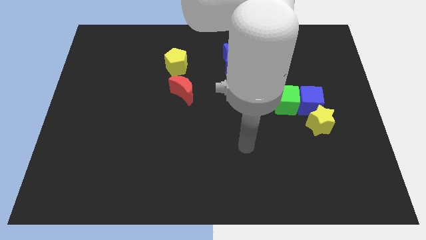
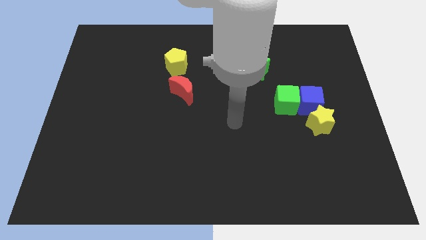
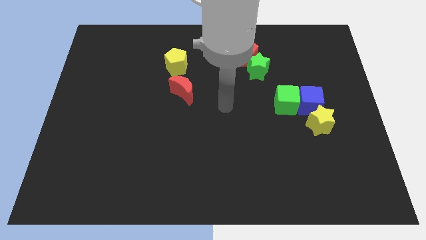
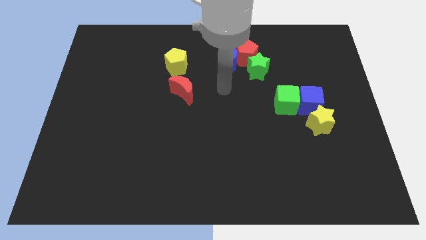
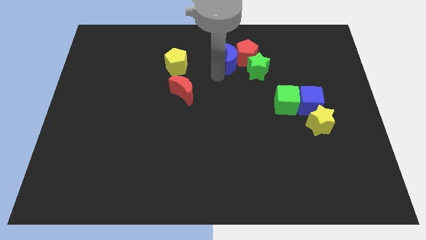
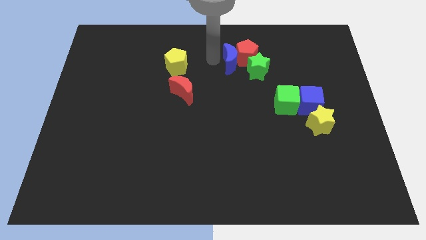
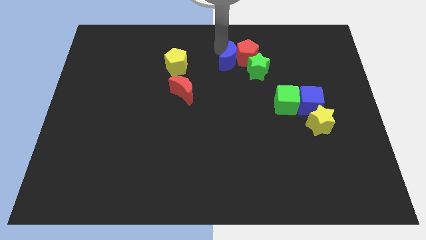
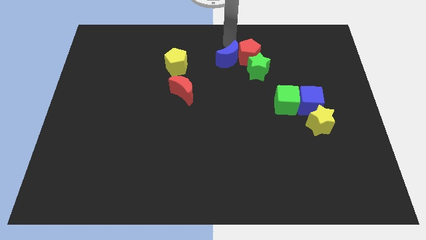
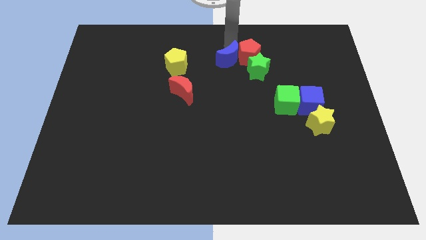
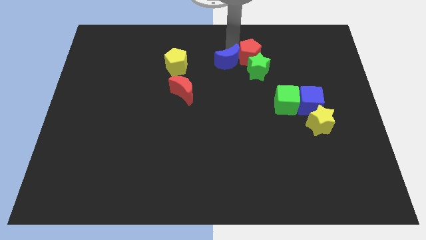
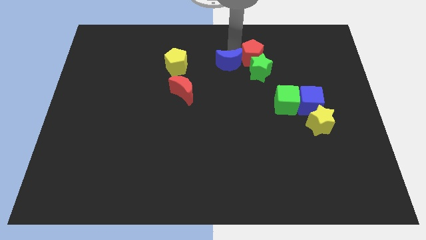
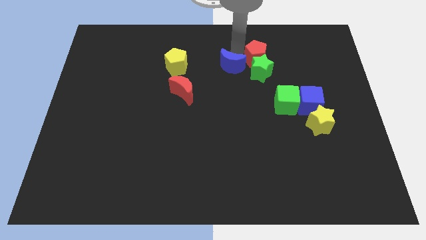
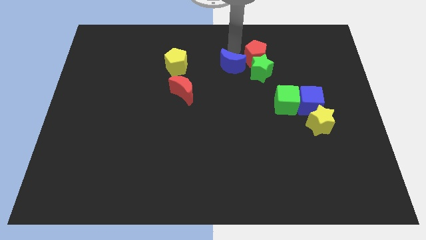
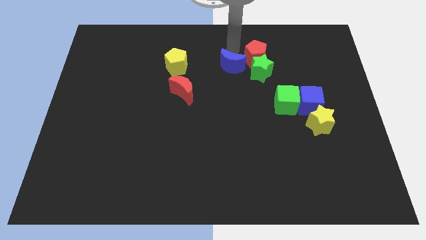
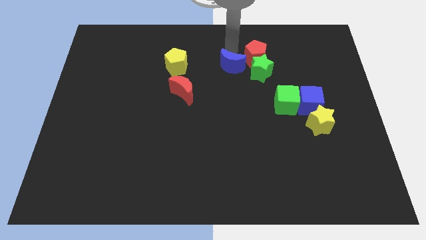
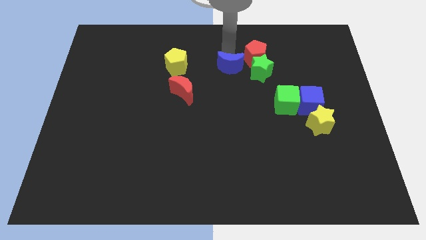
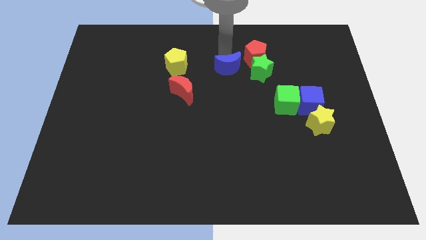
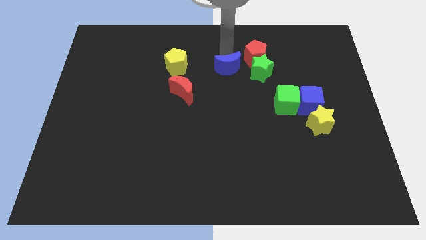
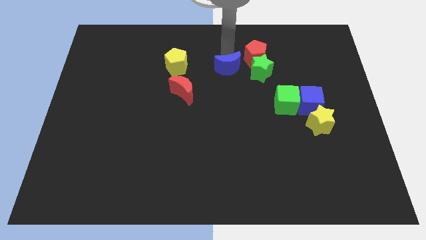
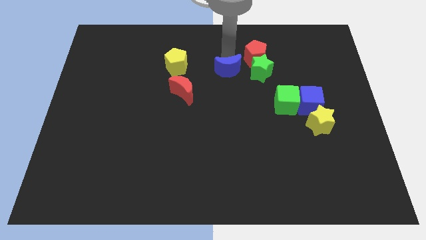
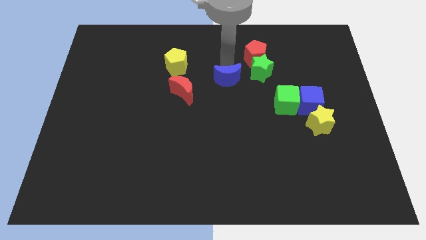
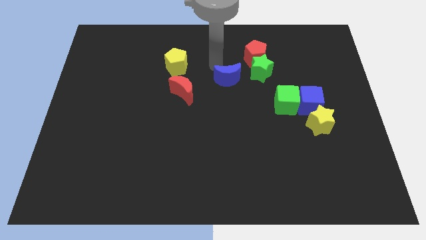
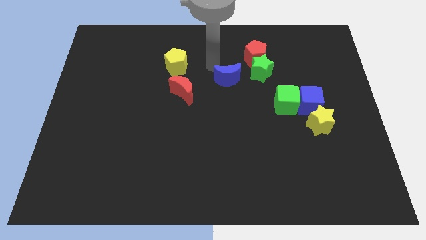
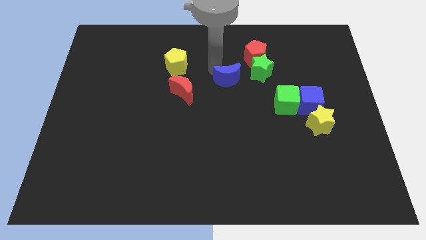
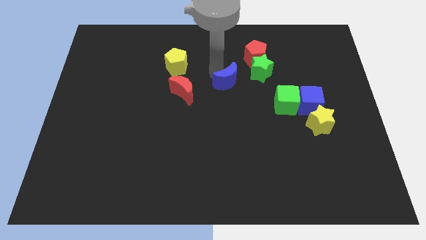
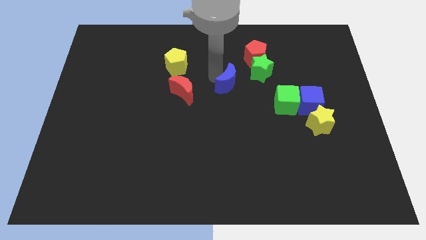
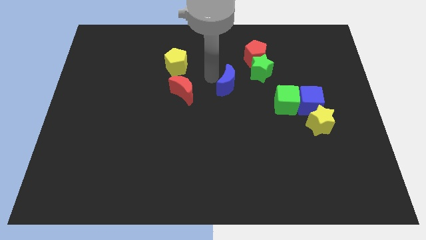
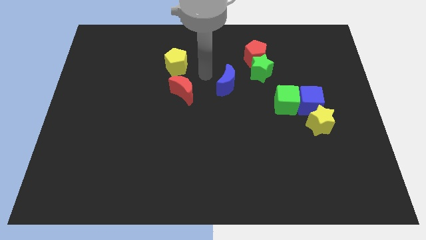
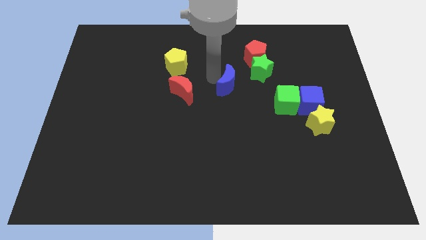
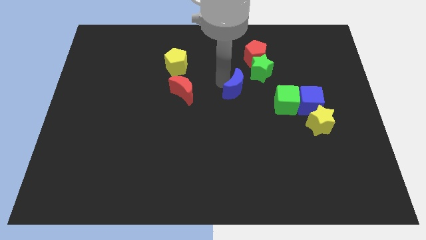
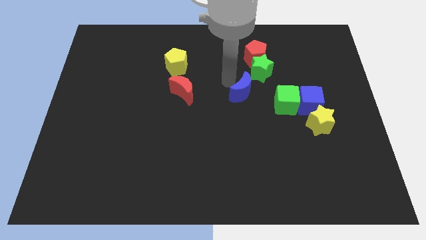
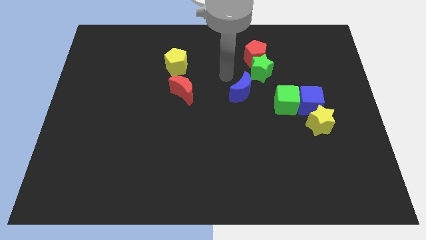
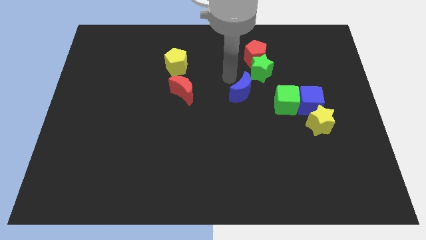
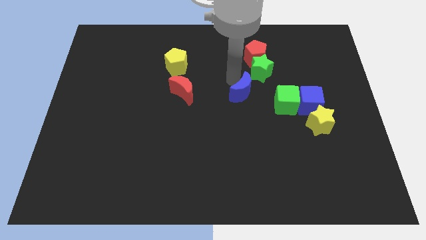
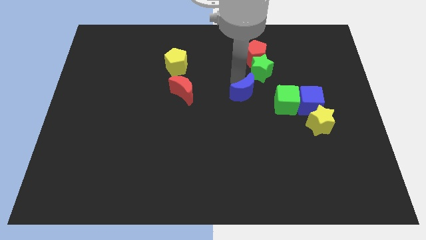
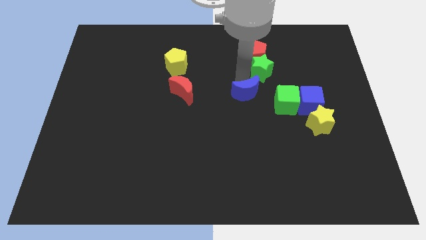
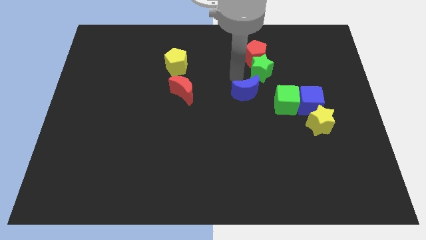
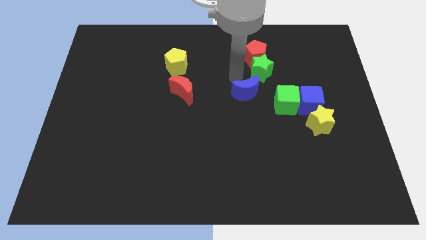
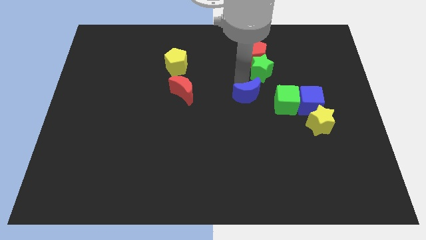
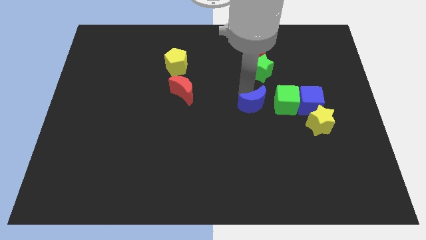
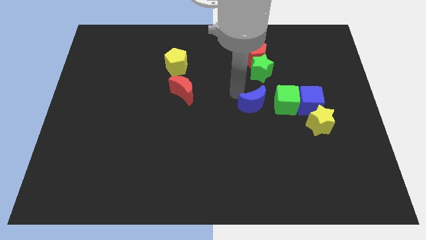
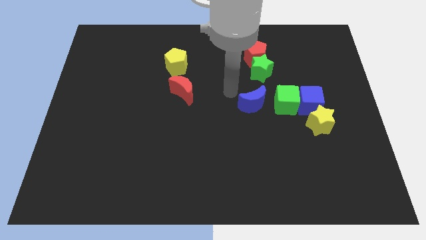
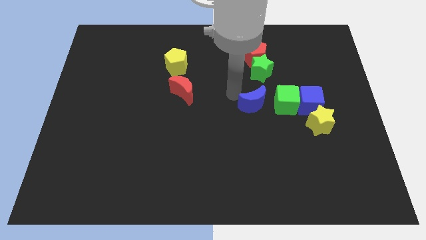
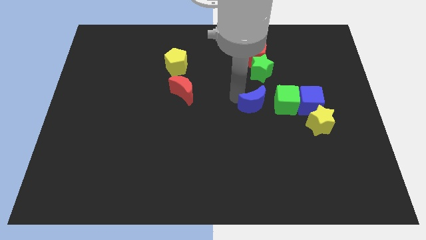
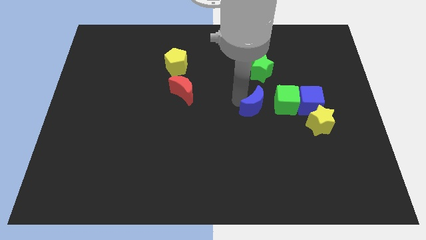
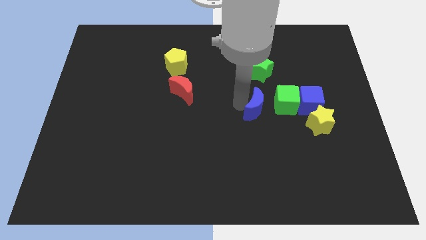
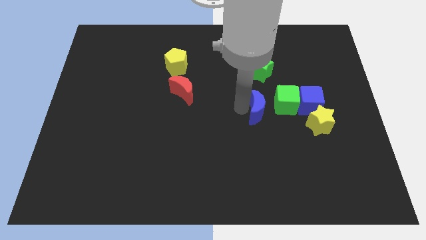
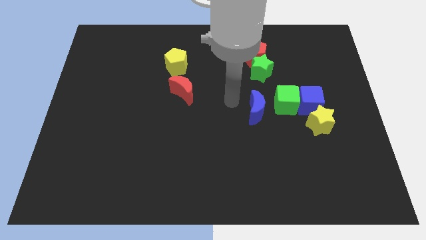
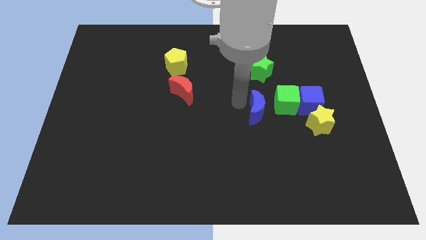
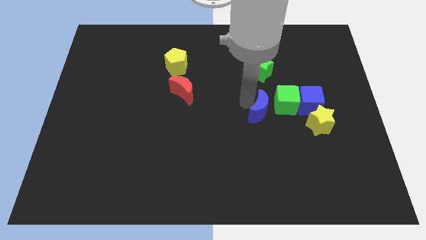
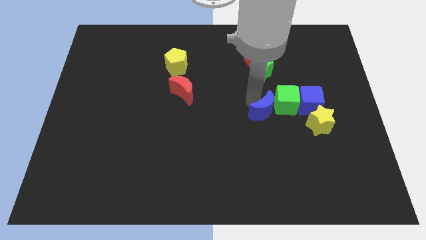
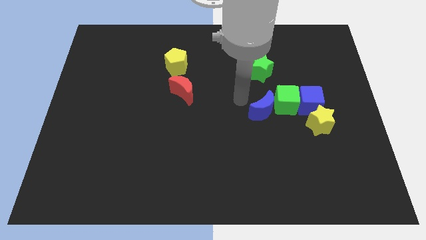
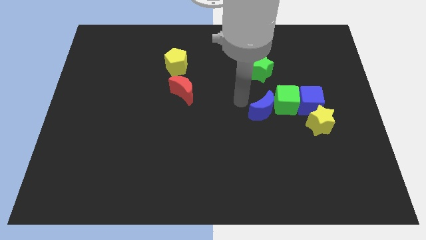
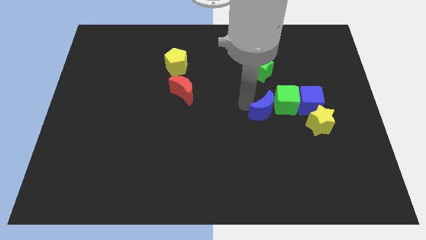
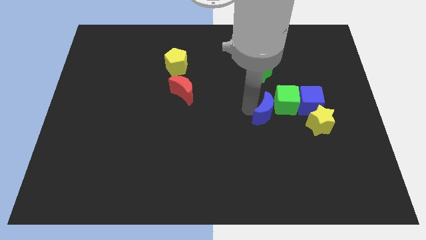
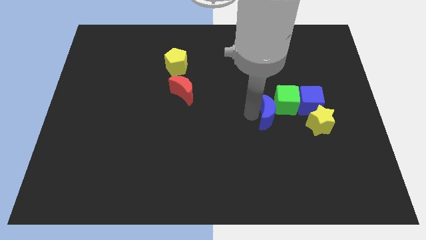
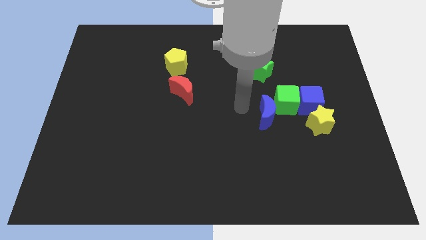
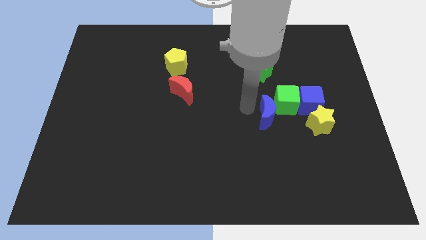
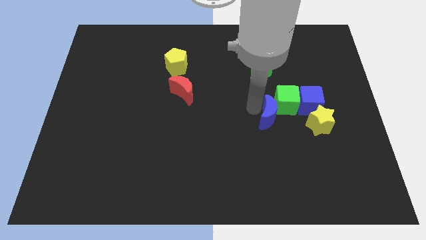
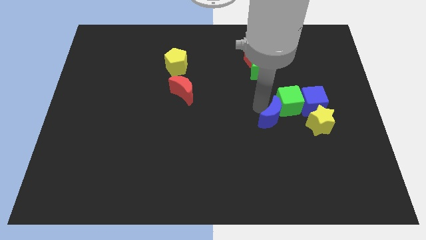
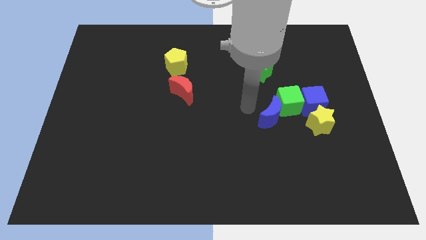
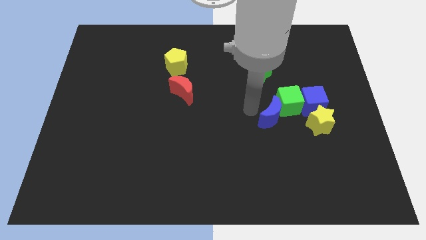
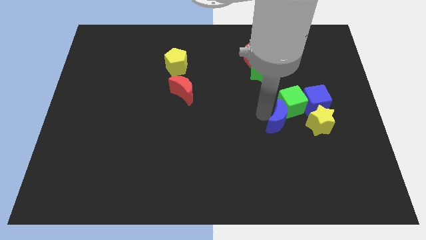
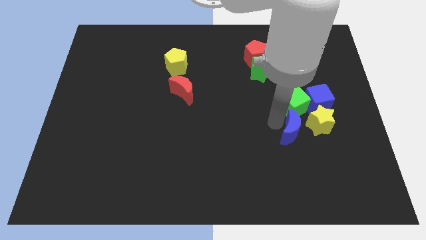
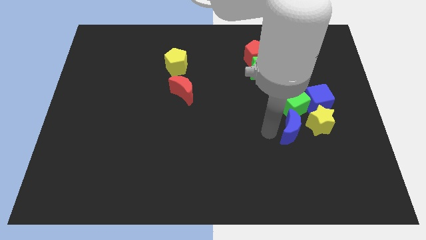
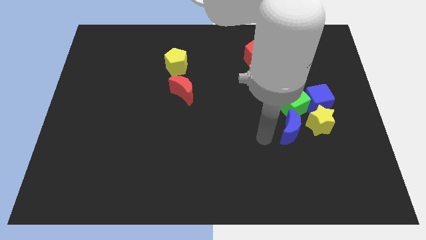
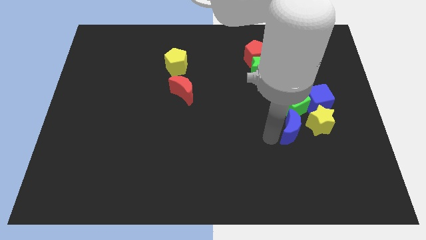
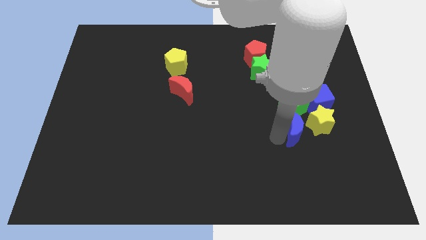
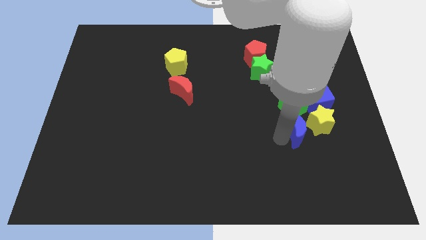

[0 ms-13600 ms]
slide the blue moon to the yellow star

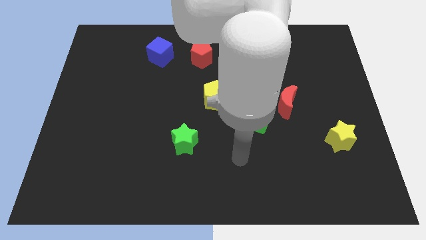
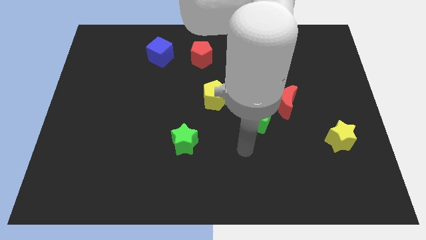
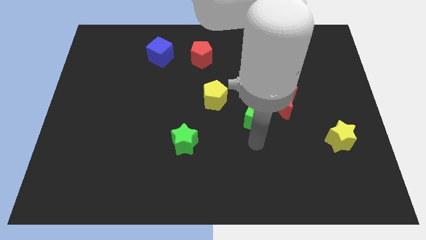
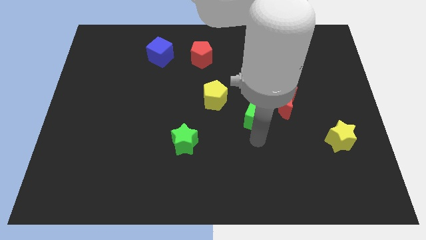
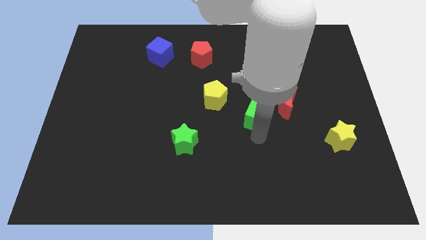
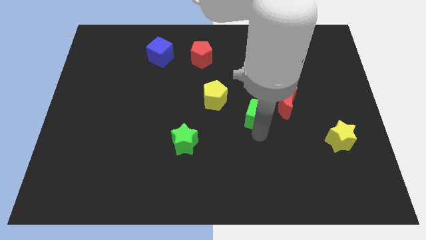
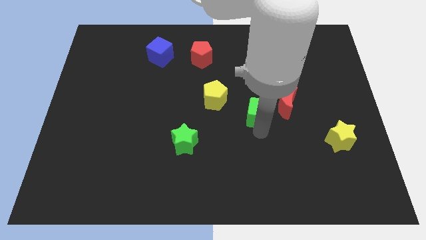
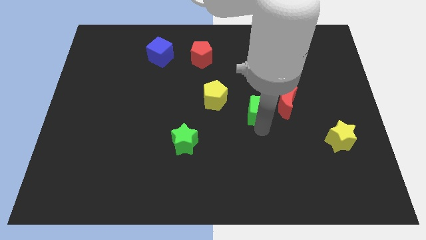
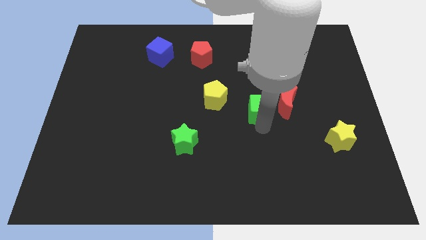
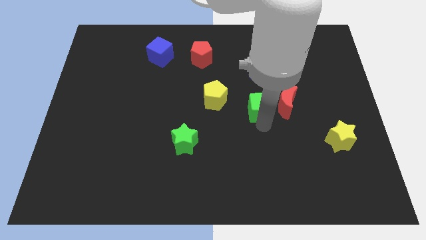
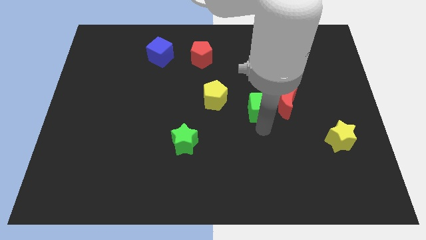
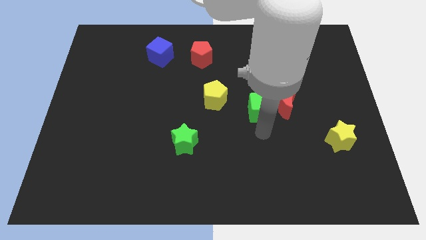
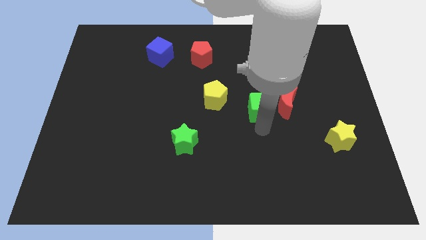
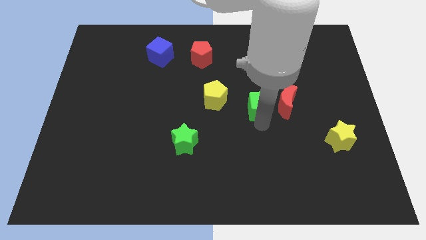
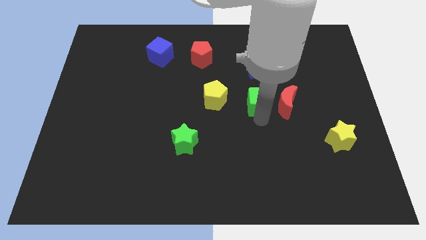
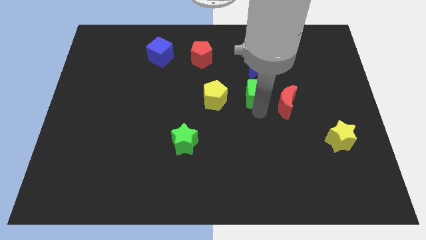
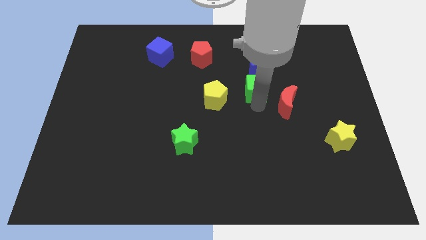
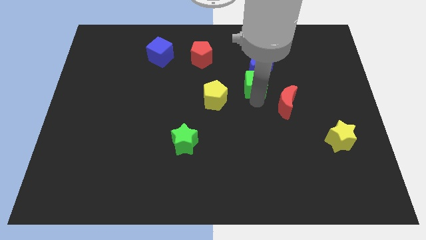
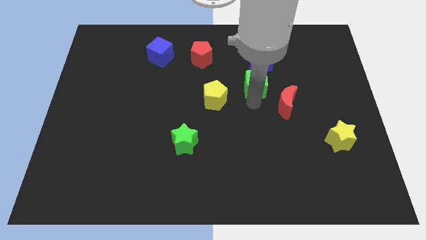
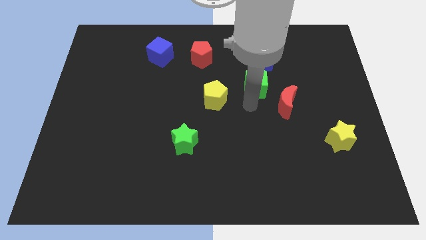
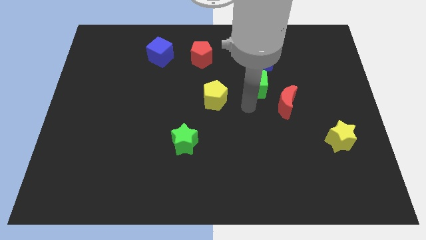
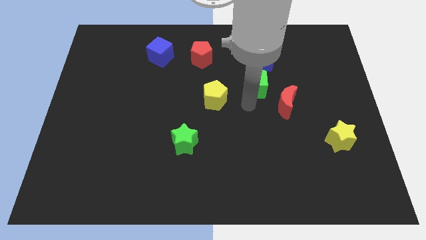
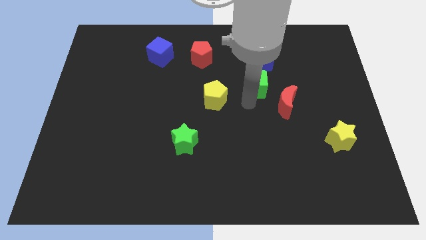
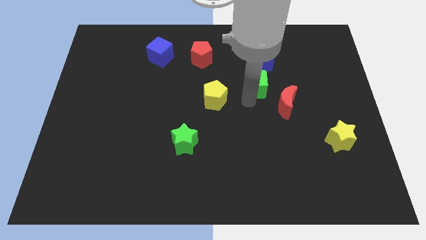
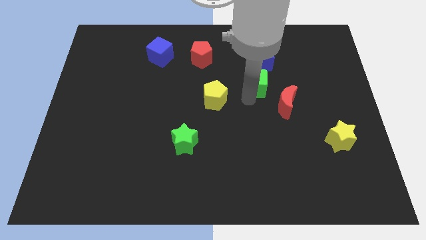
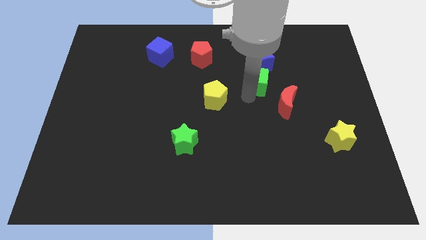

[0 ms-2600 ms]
move the green cube to the blue moon
